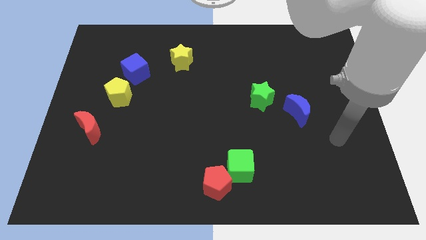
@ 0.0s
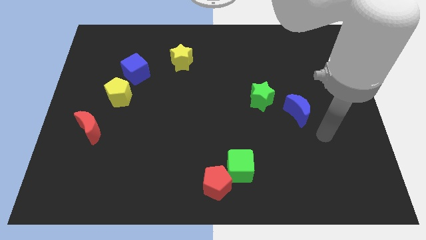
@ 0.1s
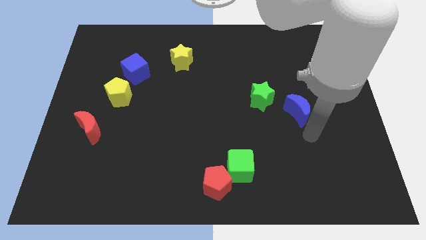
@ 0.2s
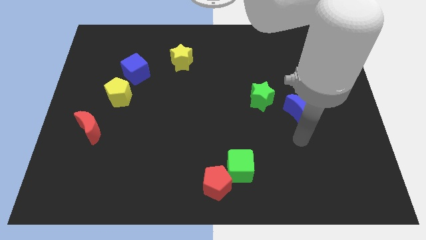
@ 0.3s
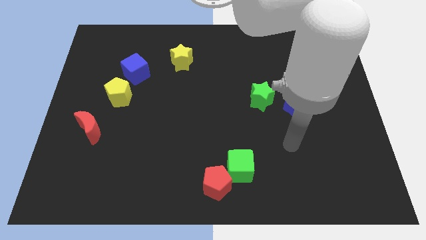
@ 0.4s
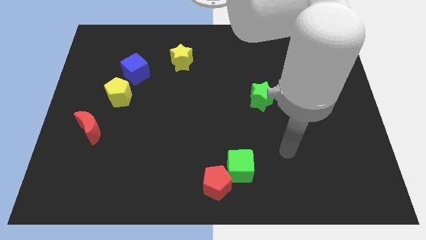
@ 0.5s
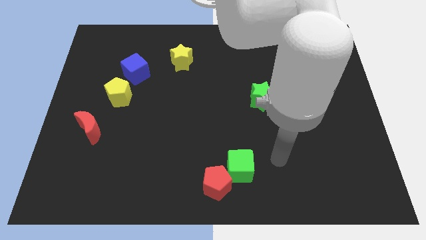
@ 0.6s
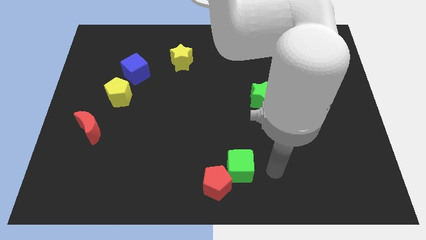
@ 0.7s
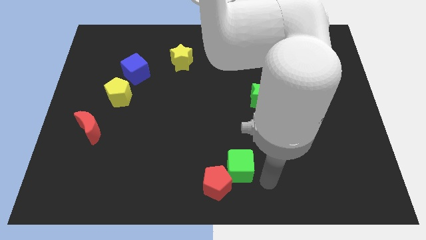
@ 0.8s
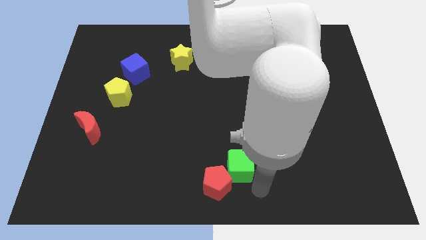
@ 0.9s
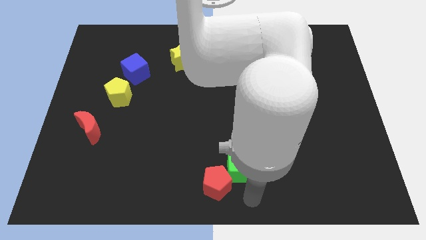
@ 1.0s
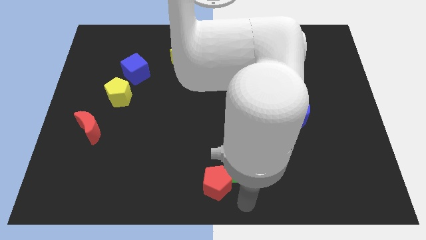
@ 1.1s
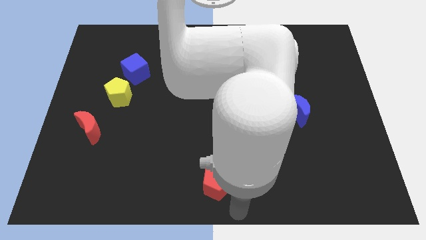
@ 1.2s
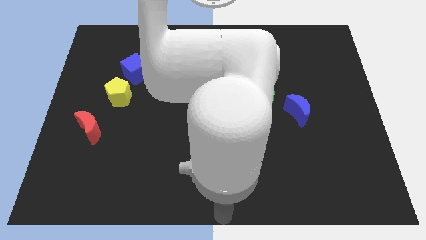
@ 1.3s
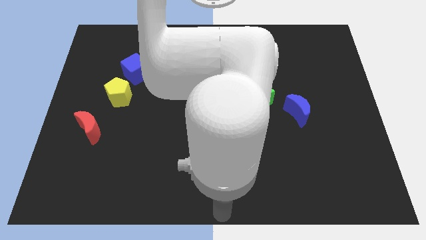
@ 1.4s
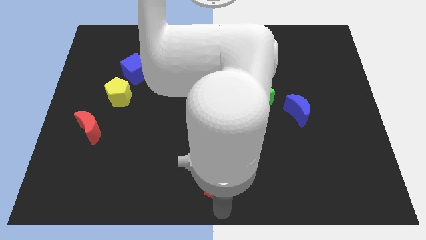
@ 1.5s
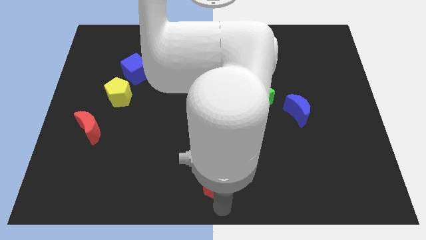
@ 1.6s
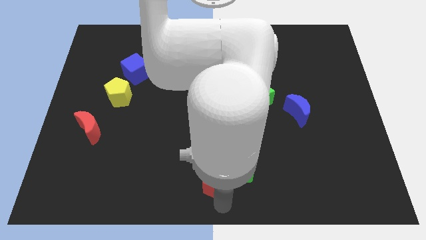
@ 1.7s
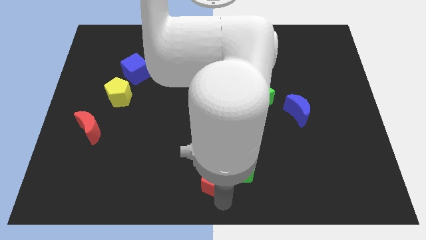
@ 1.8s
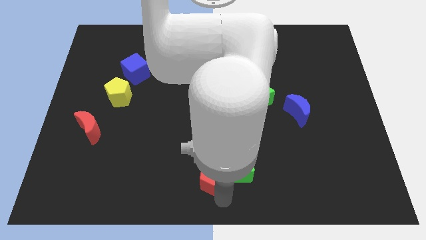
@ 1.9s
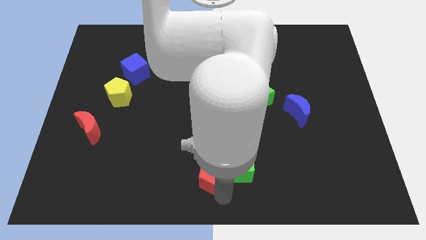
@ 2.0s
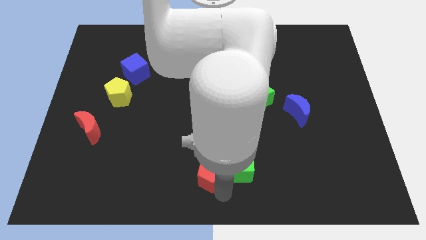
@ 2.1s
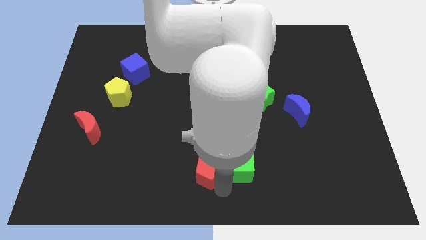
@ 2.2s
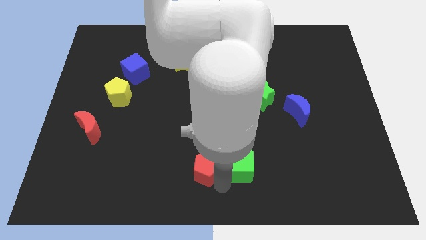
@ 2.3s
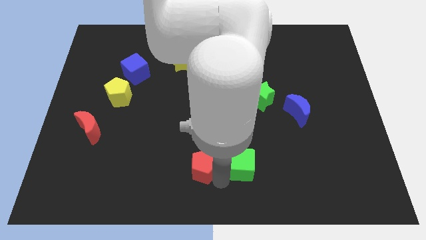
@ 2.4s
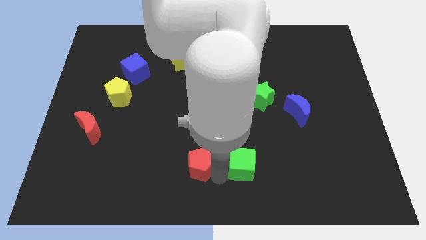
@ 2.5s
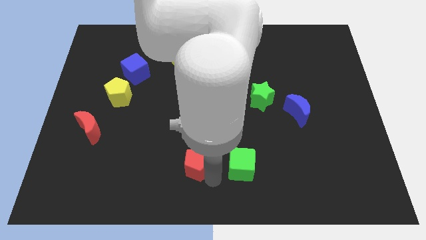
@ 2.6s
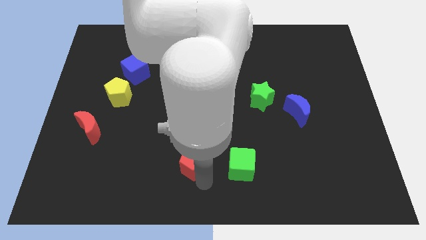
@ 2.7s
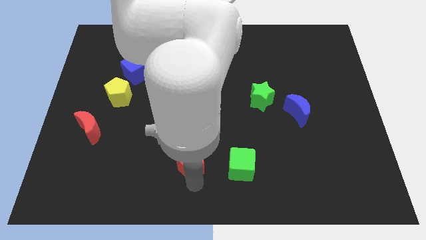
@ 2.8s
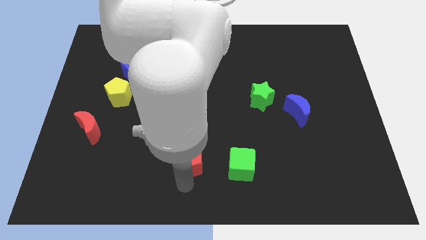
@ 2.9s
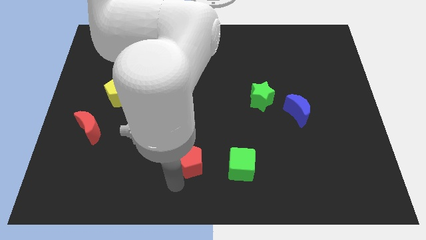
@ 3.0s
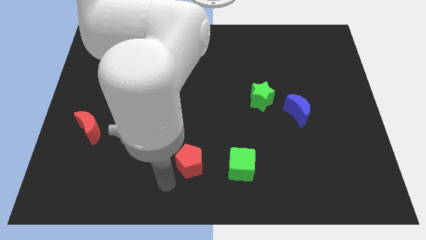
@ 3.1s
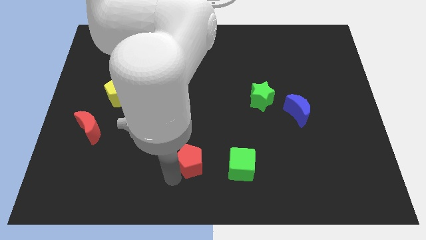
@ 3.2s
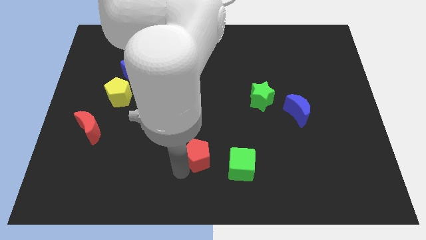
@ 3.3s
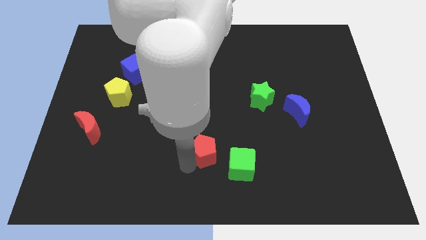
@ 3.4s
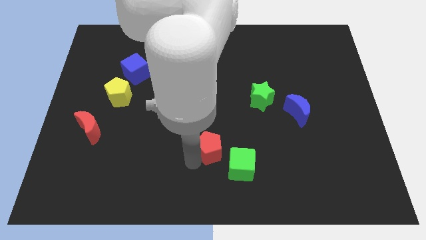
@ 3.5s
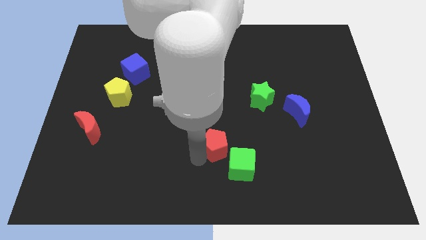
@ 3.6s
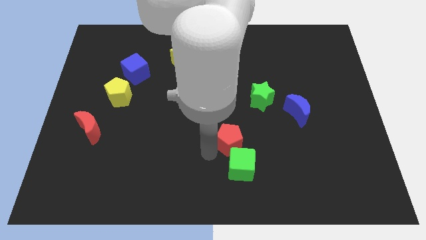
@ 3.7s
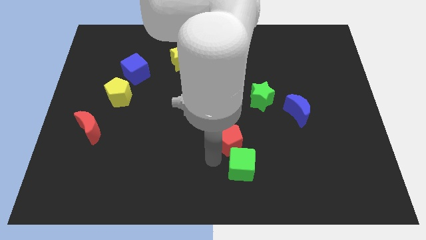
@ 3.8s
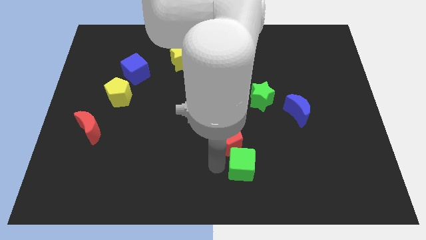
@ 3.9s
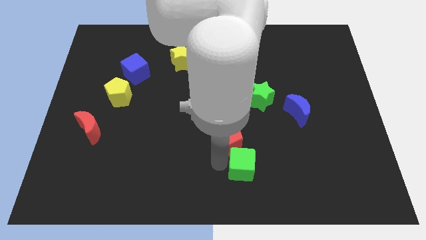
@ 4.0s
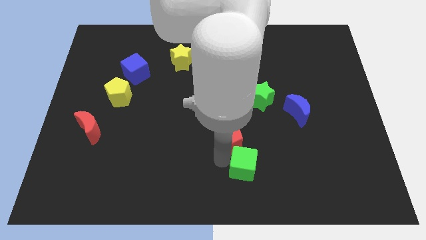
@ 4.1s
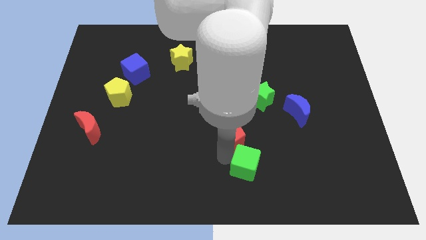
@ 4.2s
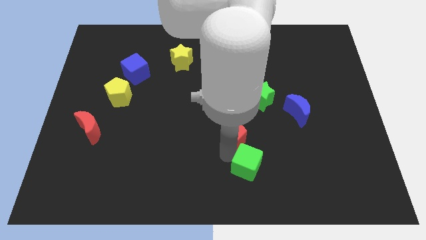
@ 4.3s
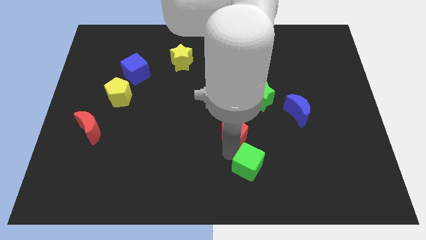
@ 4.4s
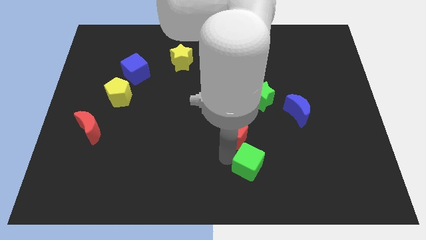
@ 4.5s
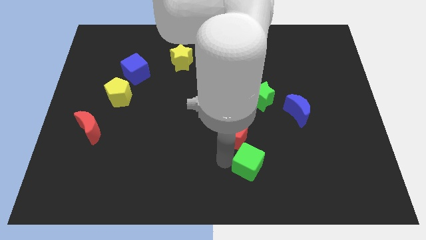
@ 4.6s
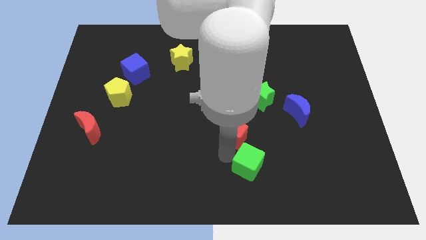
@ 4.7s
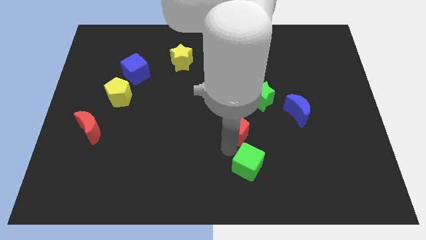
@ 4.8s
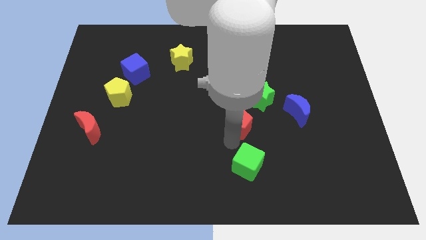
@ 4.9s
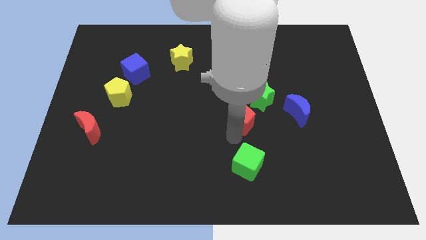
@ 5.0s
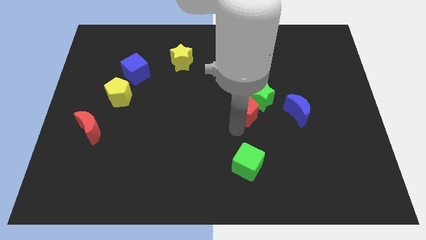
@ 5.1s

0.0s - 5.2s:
move the red pentagon towards the green star

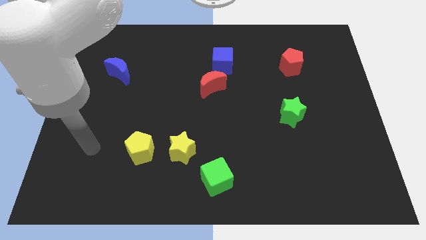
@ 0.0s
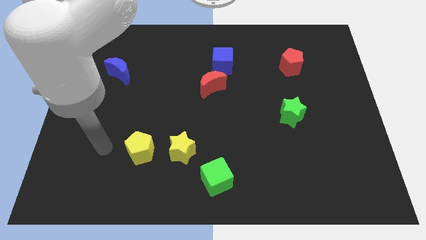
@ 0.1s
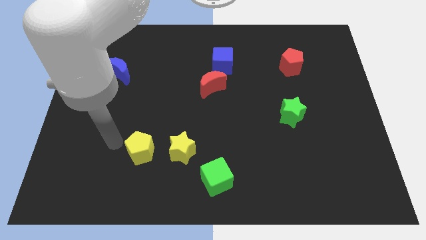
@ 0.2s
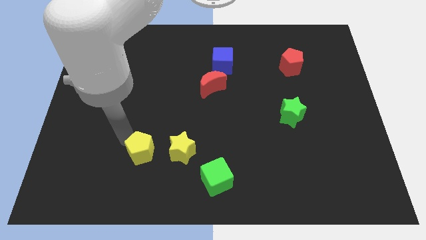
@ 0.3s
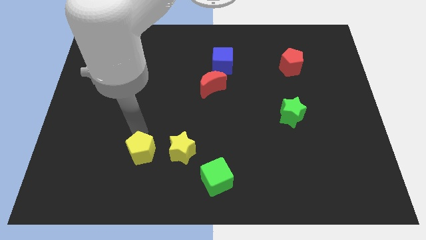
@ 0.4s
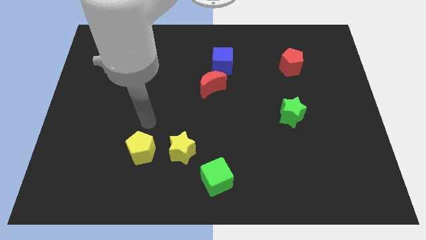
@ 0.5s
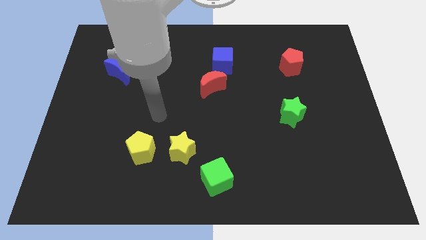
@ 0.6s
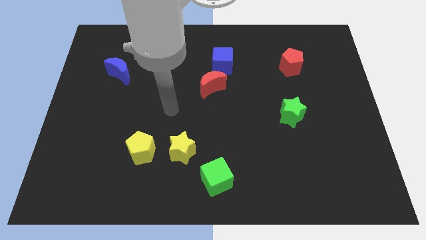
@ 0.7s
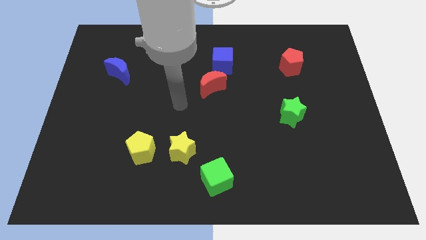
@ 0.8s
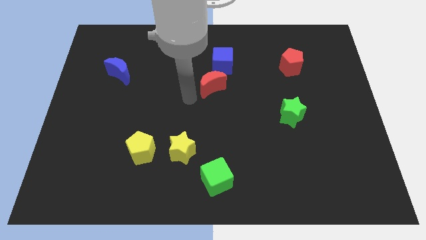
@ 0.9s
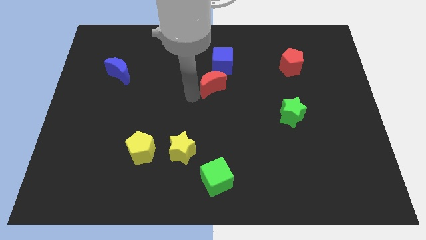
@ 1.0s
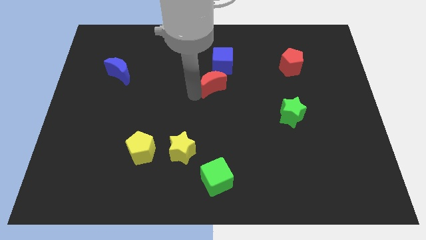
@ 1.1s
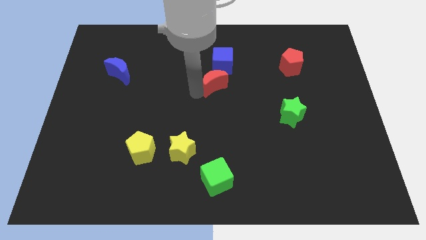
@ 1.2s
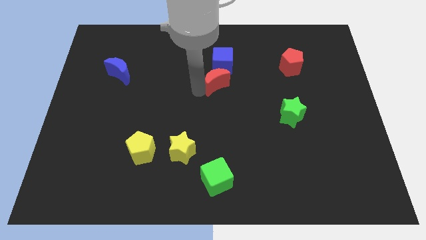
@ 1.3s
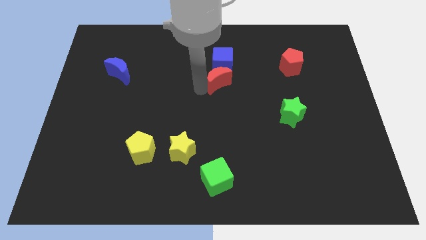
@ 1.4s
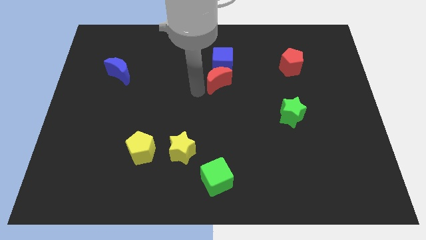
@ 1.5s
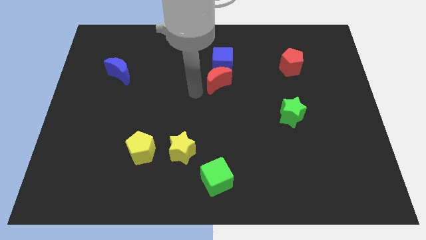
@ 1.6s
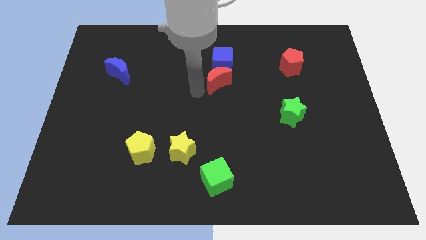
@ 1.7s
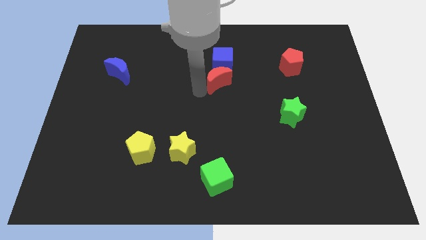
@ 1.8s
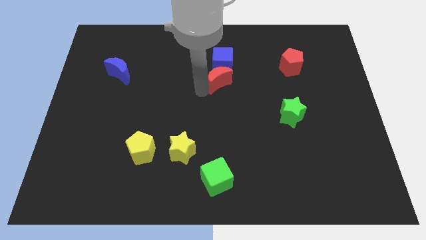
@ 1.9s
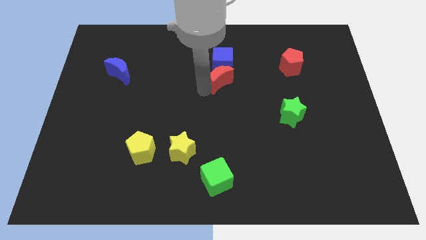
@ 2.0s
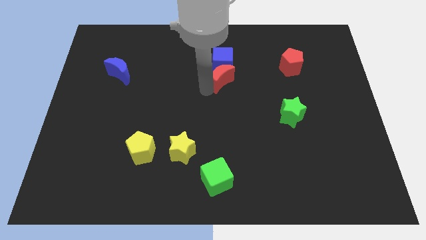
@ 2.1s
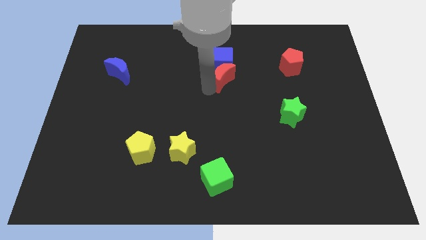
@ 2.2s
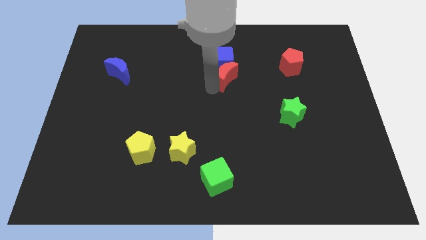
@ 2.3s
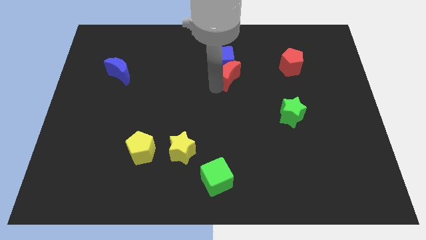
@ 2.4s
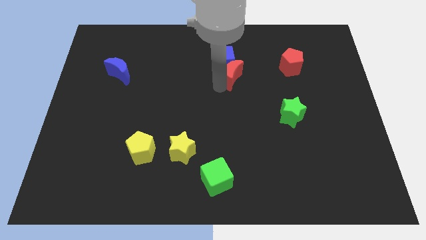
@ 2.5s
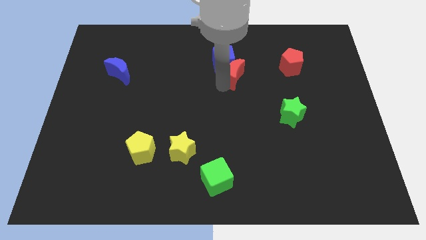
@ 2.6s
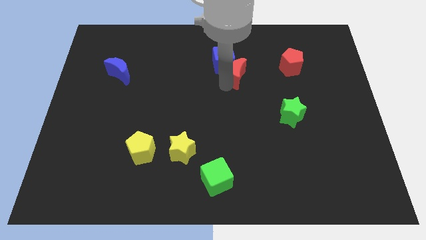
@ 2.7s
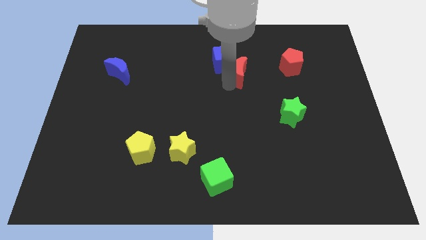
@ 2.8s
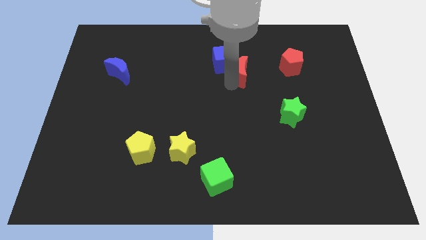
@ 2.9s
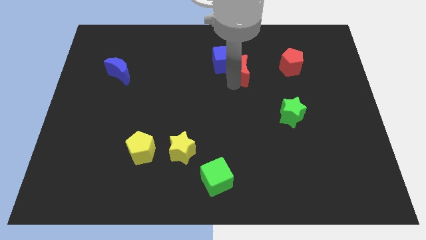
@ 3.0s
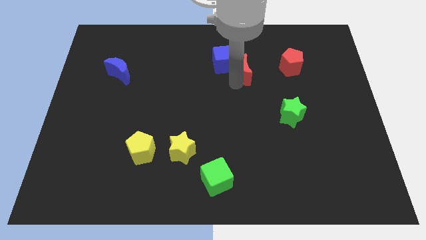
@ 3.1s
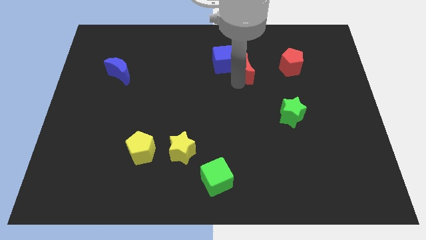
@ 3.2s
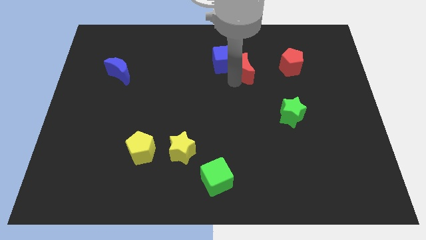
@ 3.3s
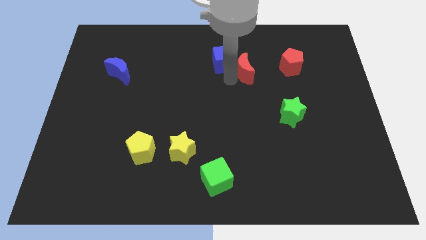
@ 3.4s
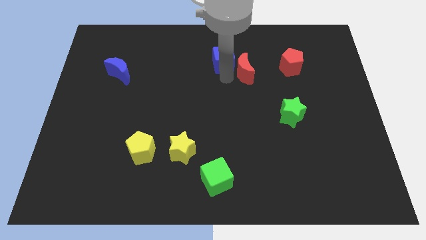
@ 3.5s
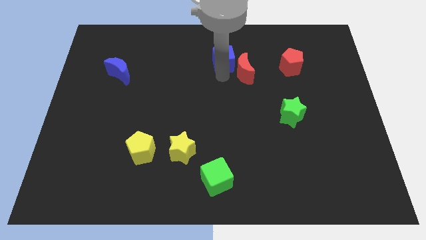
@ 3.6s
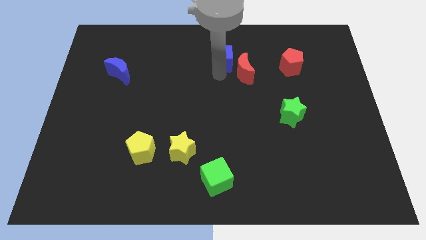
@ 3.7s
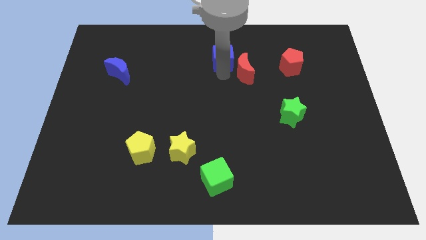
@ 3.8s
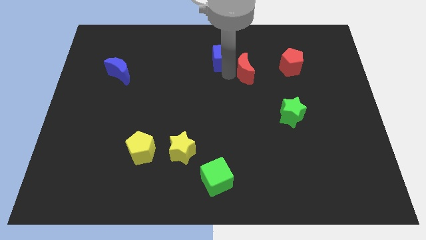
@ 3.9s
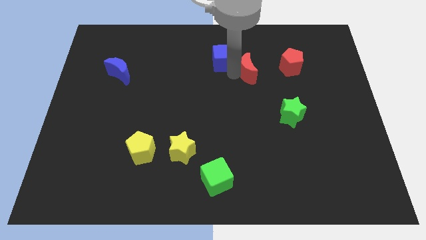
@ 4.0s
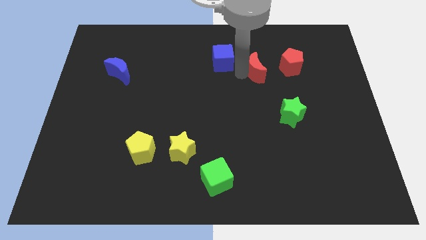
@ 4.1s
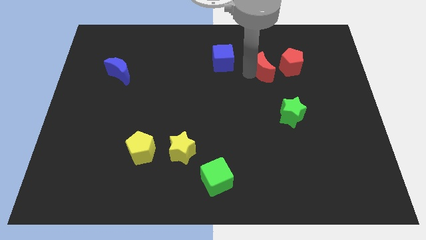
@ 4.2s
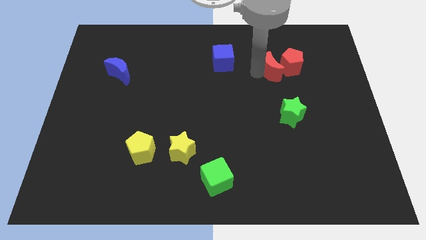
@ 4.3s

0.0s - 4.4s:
put the red moon towards the red pentagon
